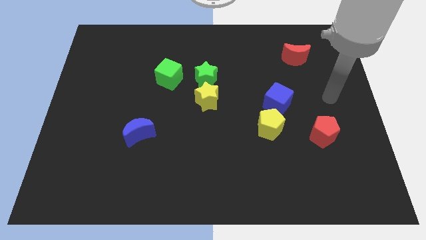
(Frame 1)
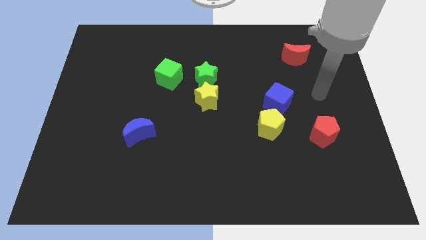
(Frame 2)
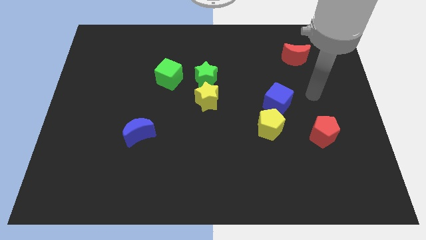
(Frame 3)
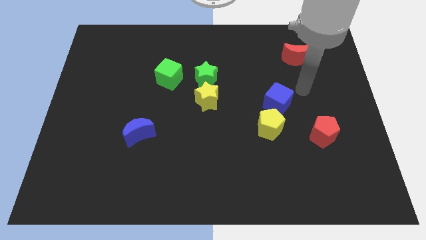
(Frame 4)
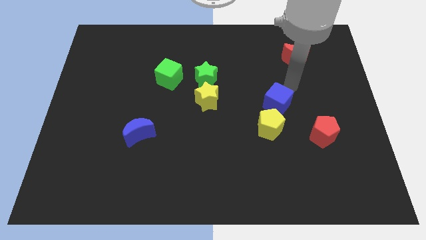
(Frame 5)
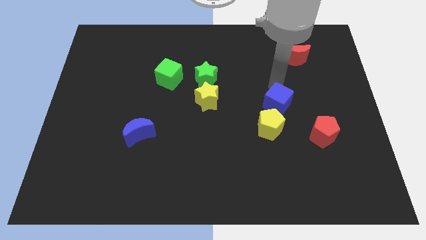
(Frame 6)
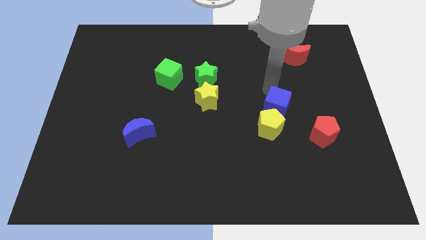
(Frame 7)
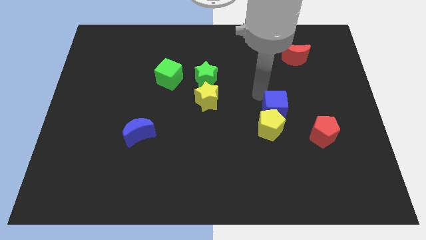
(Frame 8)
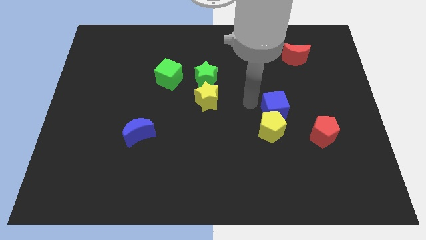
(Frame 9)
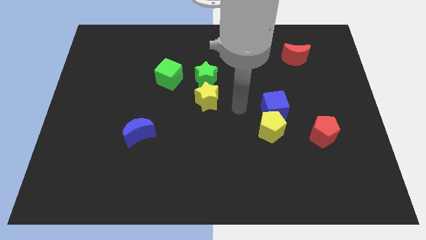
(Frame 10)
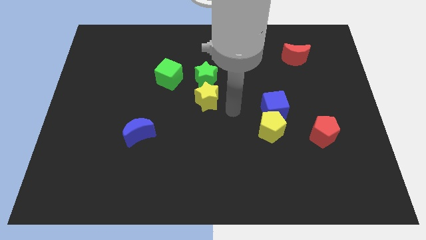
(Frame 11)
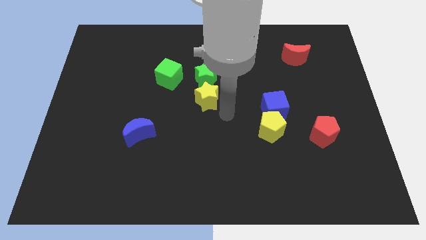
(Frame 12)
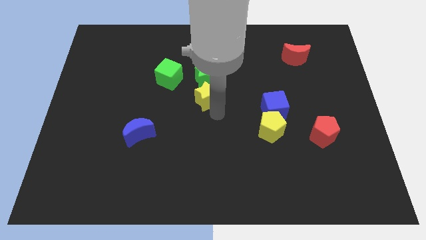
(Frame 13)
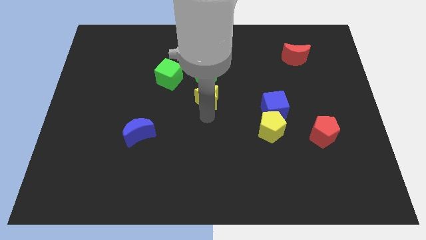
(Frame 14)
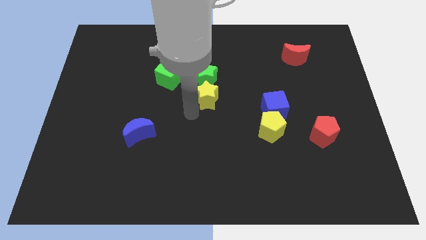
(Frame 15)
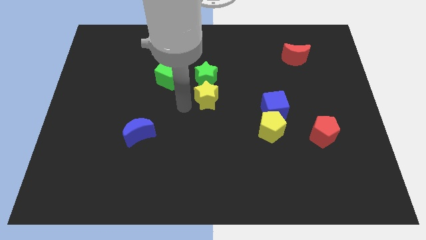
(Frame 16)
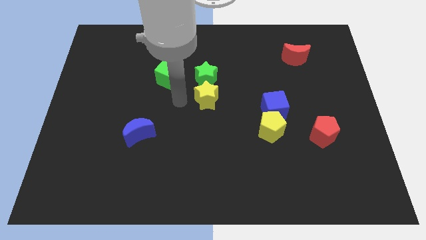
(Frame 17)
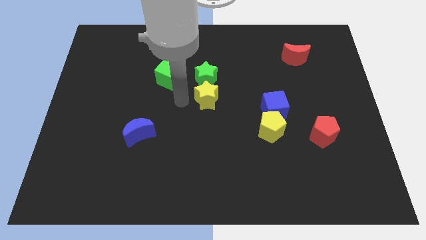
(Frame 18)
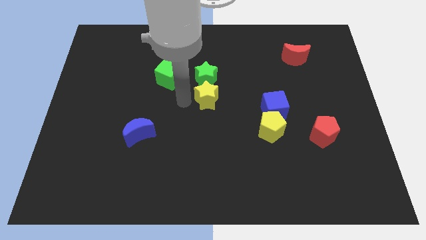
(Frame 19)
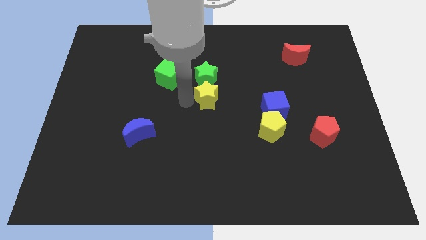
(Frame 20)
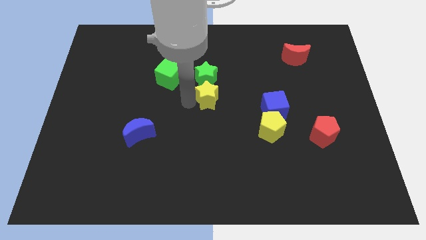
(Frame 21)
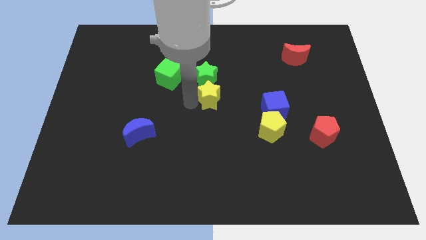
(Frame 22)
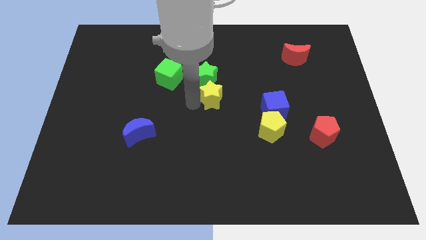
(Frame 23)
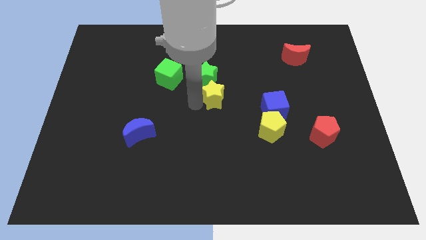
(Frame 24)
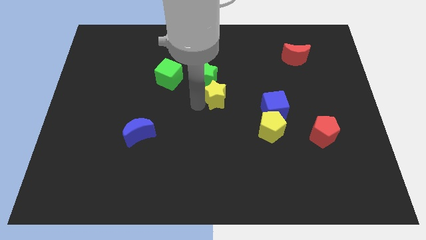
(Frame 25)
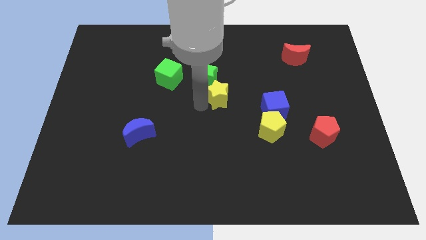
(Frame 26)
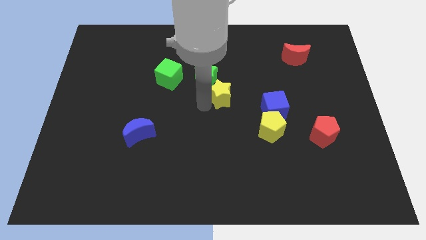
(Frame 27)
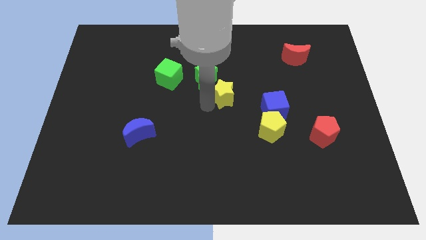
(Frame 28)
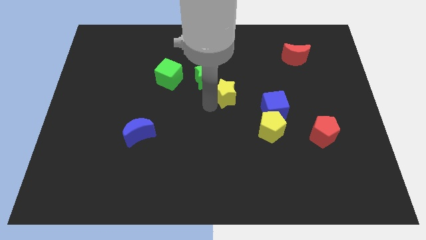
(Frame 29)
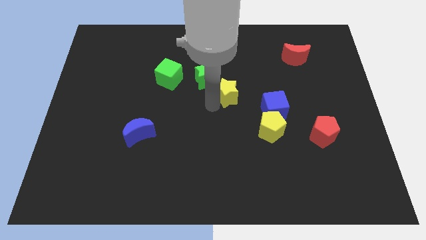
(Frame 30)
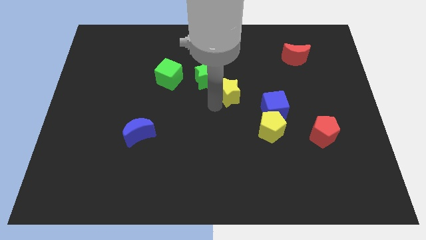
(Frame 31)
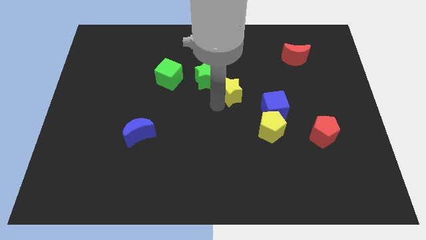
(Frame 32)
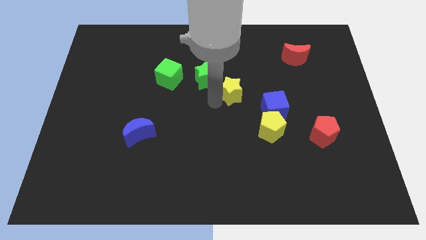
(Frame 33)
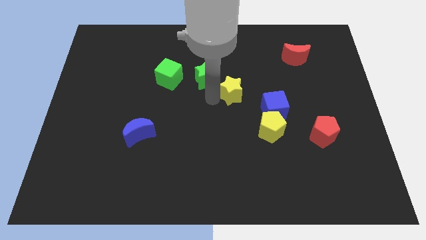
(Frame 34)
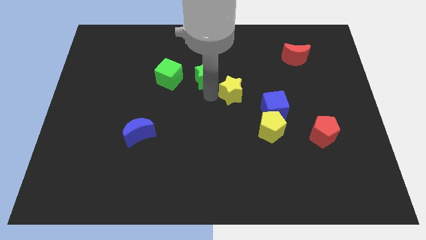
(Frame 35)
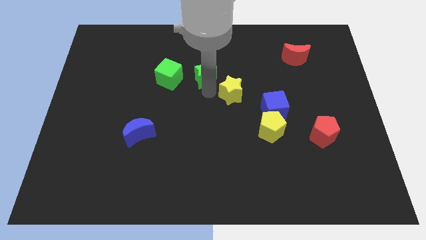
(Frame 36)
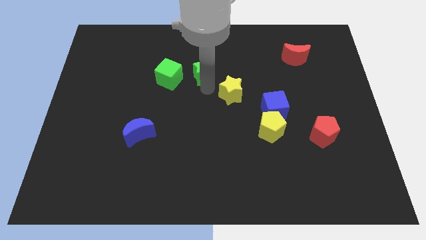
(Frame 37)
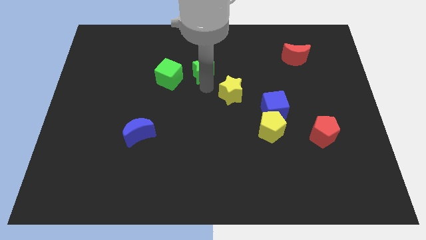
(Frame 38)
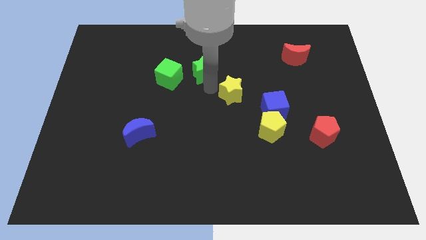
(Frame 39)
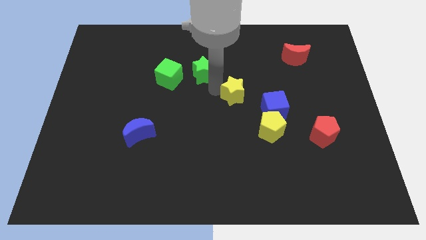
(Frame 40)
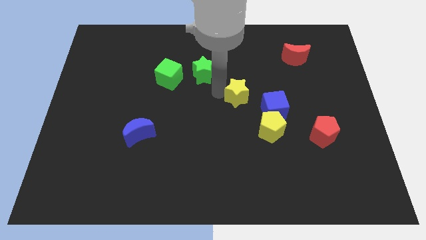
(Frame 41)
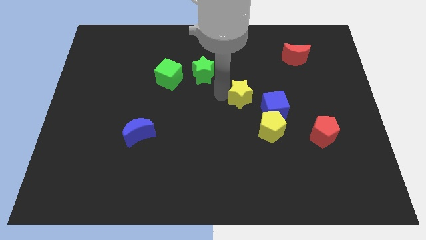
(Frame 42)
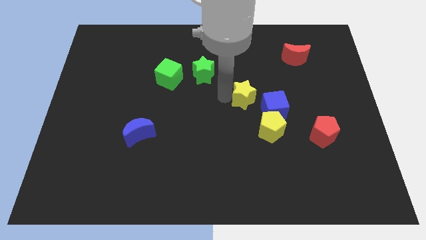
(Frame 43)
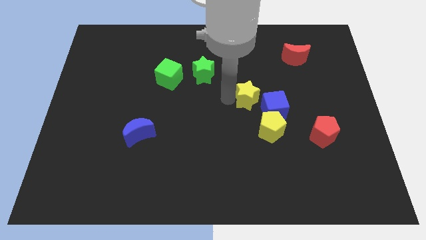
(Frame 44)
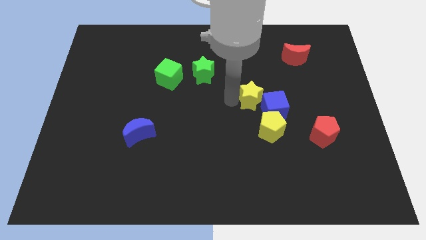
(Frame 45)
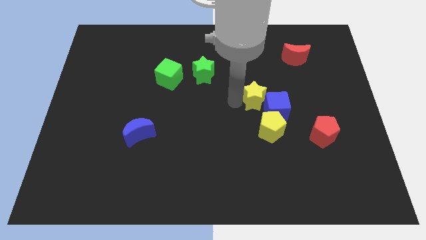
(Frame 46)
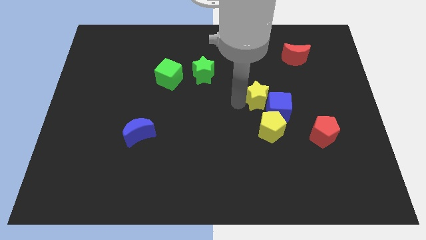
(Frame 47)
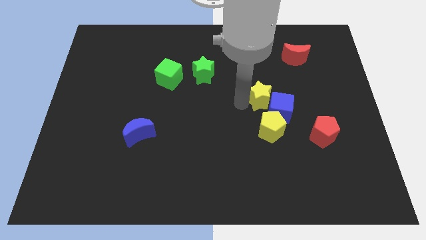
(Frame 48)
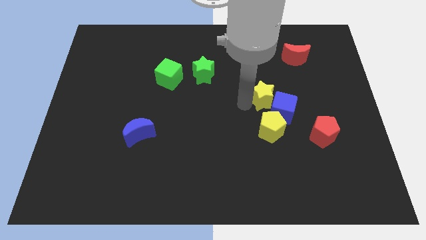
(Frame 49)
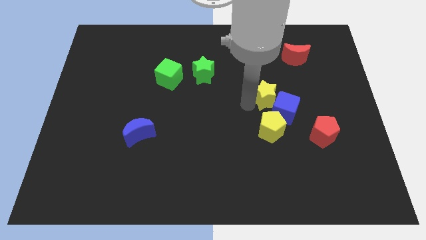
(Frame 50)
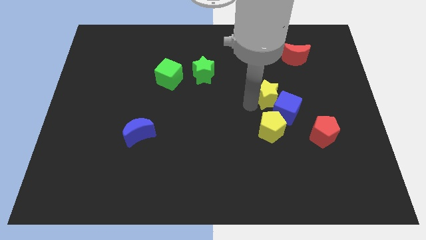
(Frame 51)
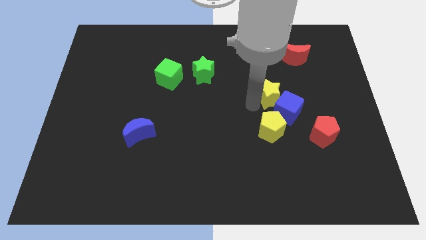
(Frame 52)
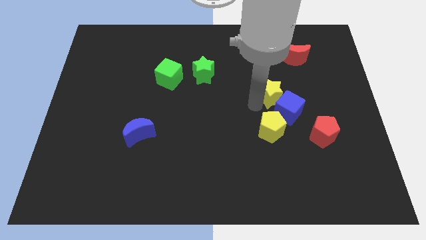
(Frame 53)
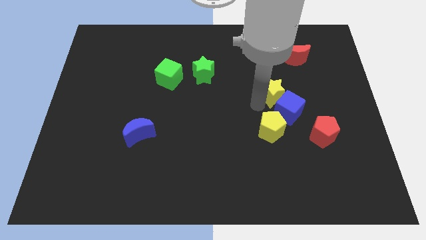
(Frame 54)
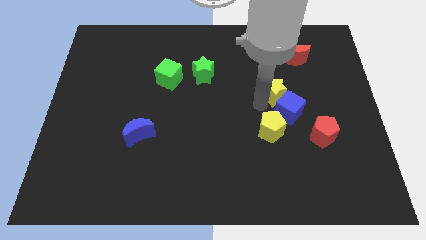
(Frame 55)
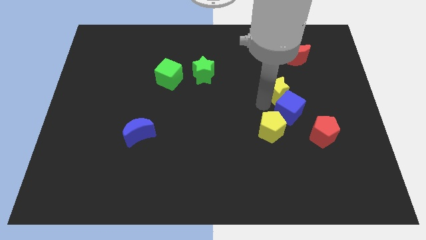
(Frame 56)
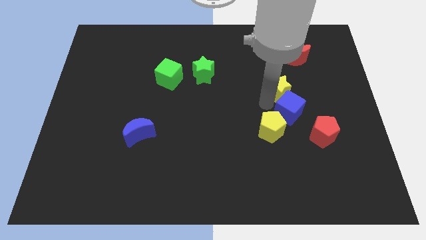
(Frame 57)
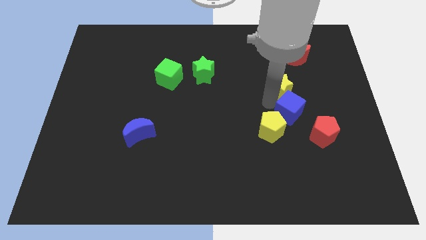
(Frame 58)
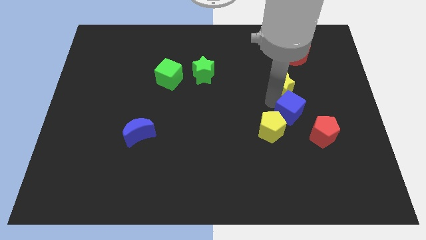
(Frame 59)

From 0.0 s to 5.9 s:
move the yellow star below the red moon
